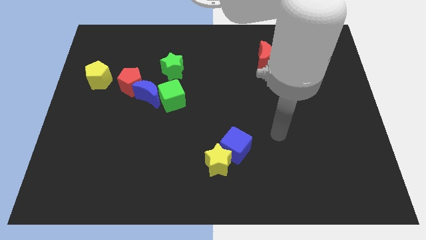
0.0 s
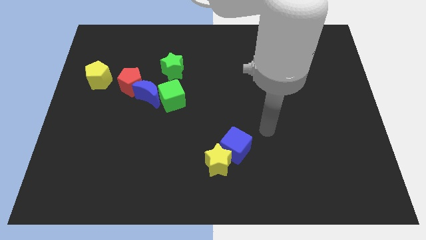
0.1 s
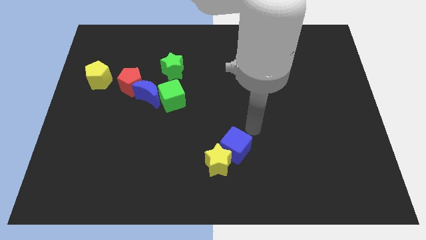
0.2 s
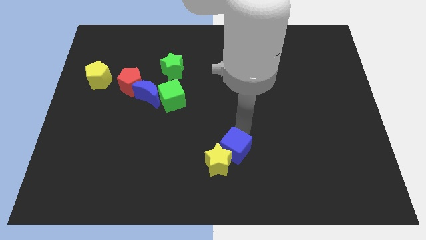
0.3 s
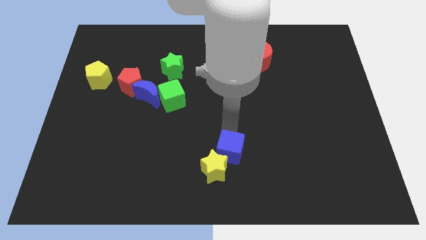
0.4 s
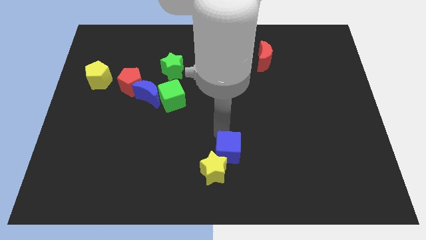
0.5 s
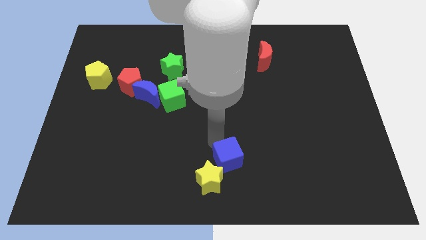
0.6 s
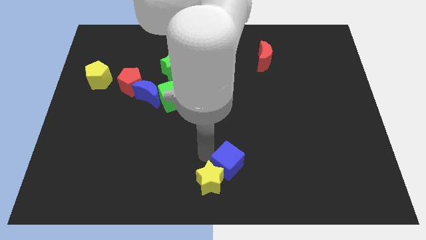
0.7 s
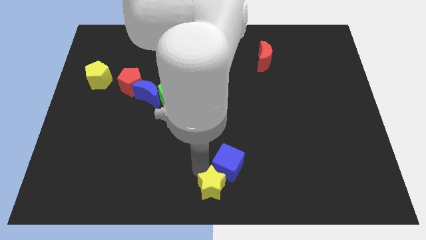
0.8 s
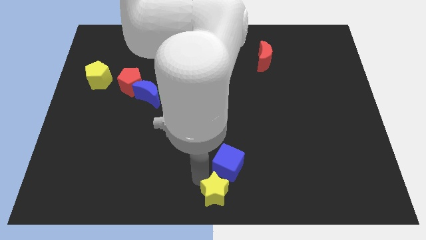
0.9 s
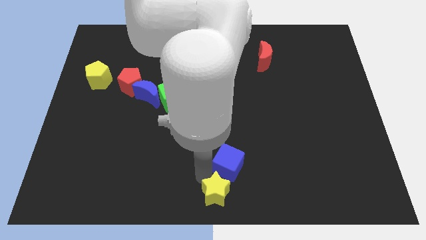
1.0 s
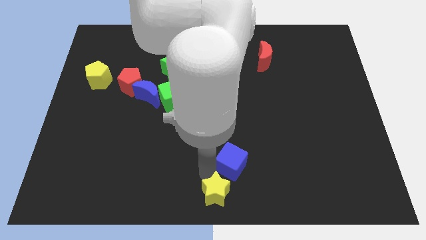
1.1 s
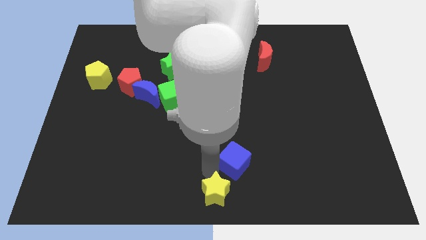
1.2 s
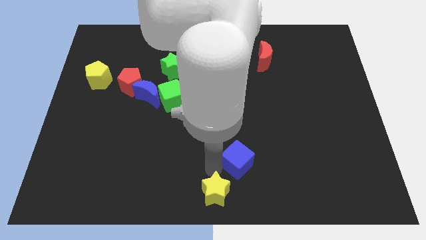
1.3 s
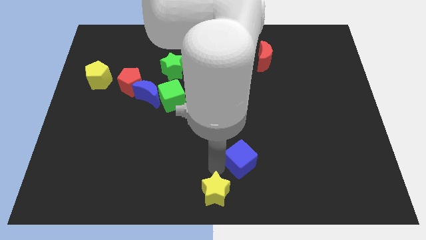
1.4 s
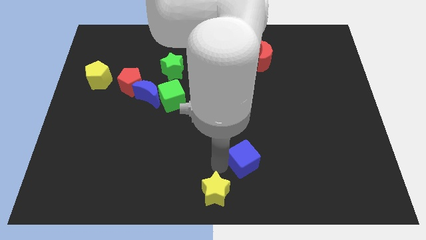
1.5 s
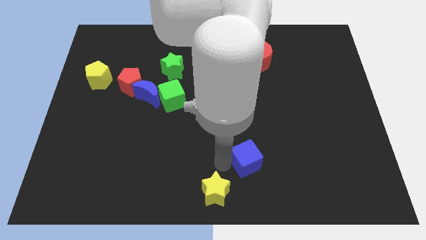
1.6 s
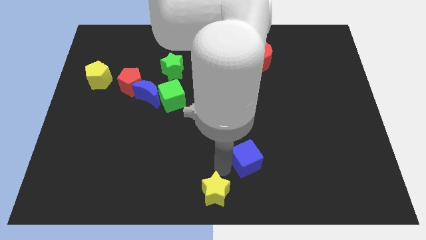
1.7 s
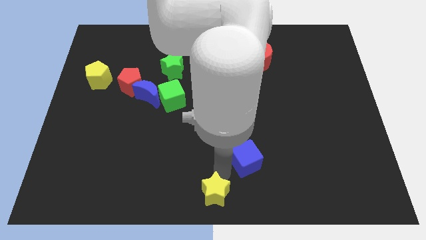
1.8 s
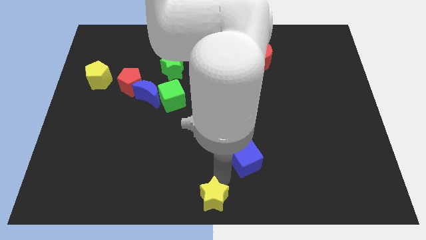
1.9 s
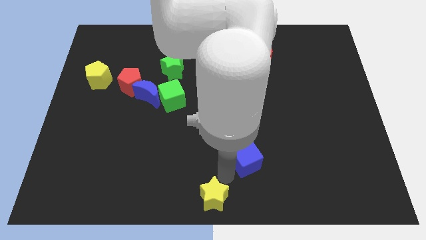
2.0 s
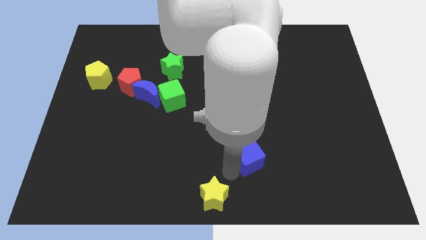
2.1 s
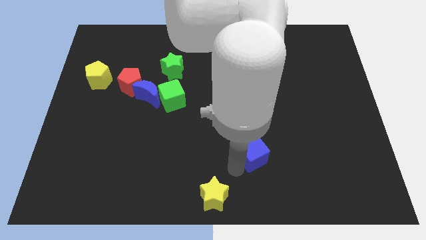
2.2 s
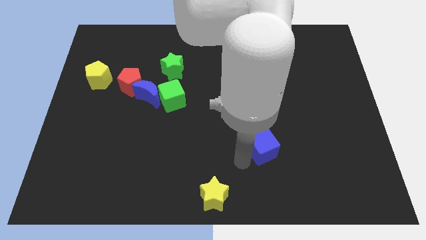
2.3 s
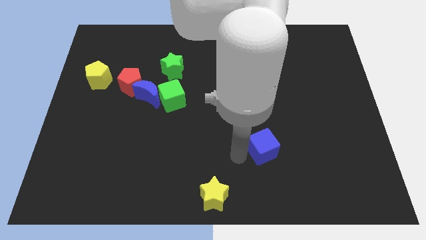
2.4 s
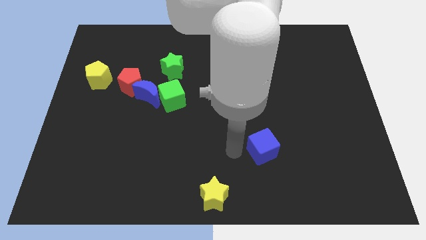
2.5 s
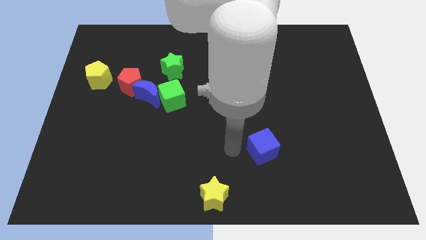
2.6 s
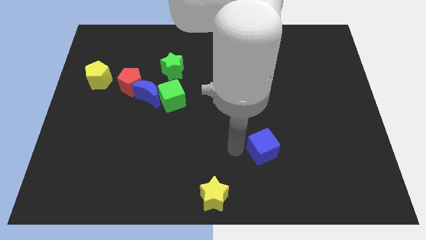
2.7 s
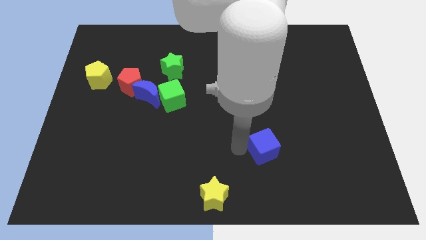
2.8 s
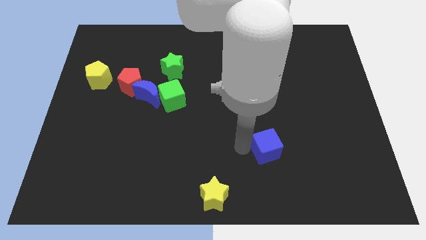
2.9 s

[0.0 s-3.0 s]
move the blue cube slightly to the right

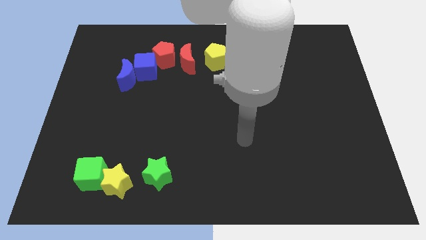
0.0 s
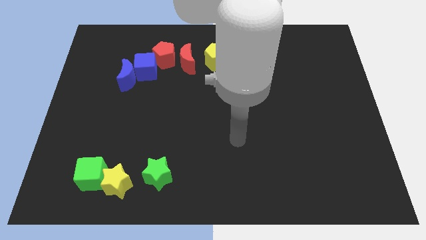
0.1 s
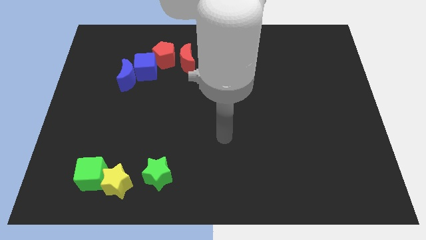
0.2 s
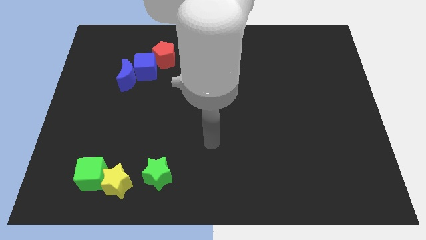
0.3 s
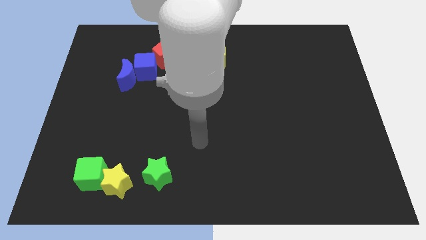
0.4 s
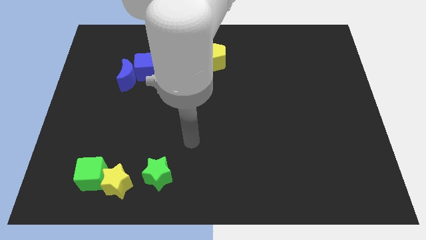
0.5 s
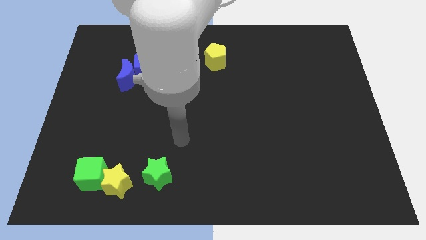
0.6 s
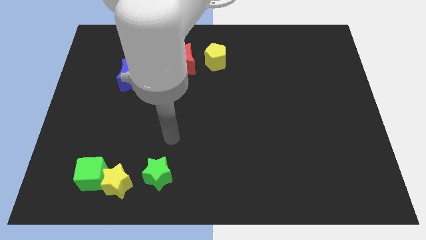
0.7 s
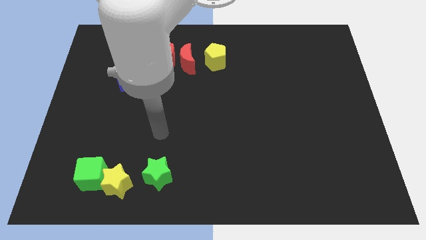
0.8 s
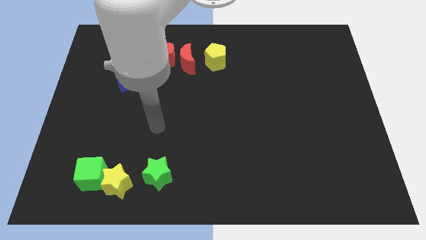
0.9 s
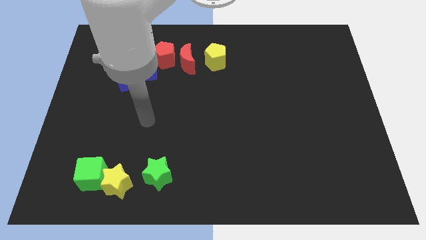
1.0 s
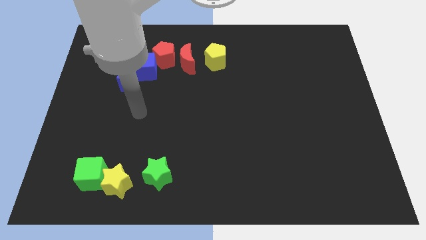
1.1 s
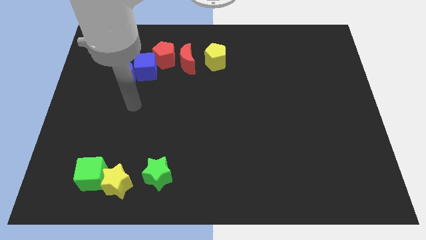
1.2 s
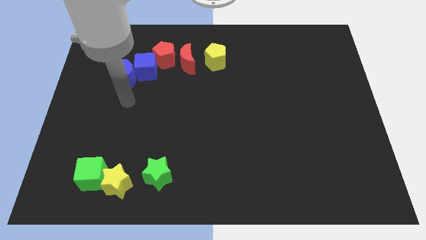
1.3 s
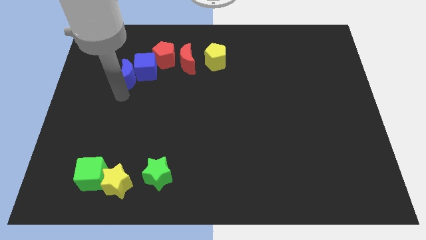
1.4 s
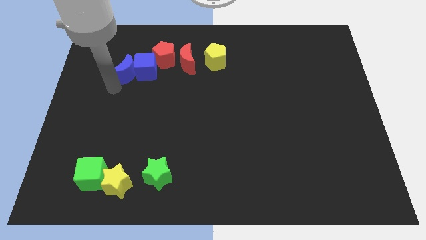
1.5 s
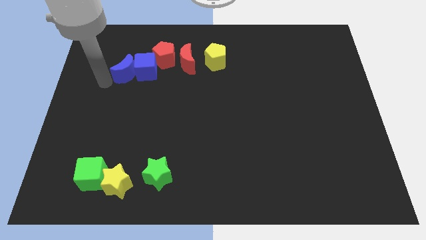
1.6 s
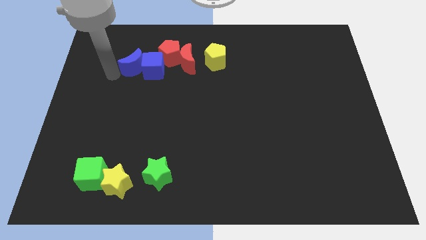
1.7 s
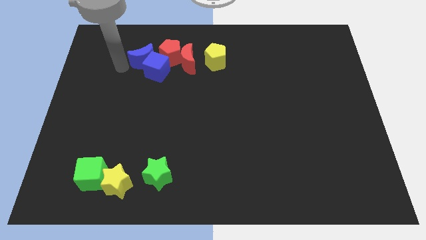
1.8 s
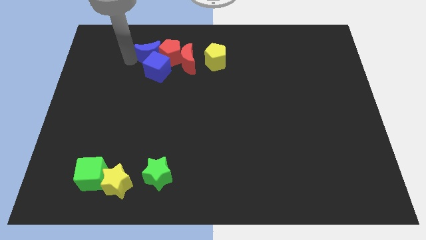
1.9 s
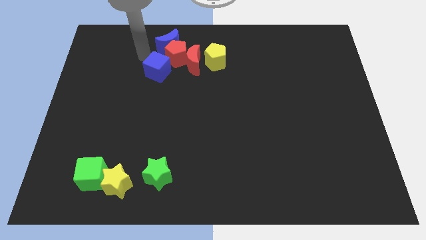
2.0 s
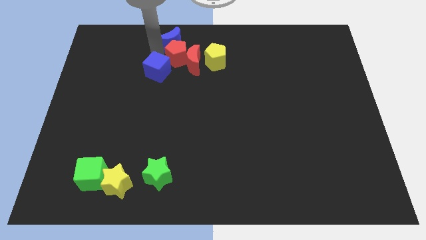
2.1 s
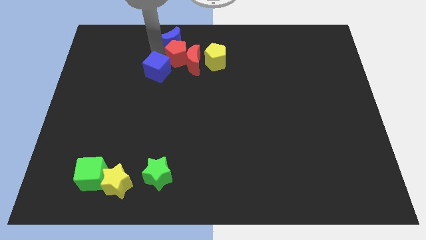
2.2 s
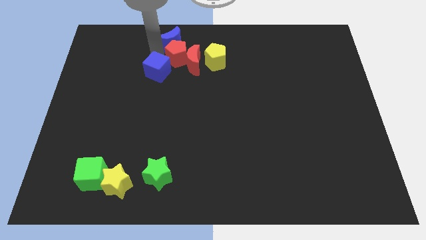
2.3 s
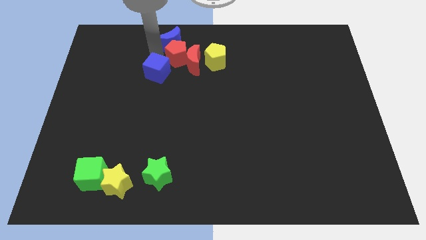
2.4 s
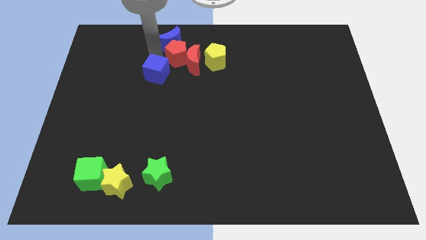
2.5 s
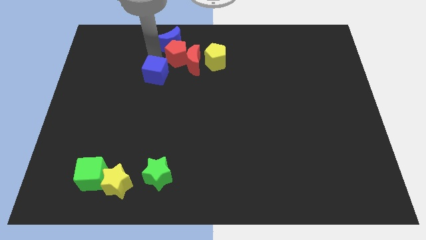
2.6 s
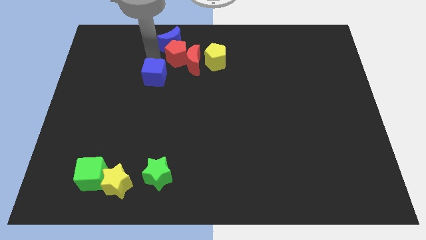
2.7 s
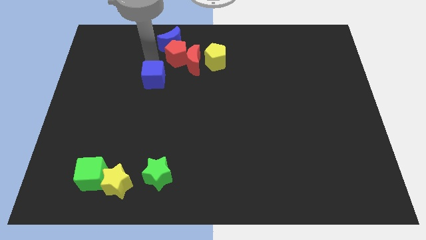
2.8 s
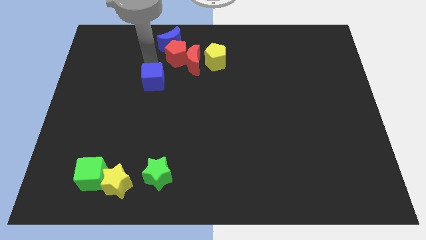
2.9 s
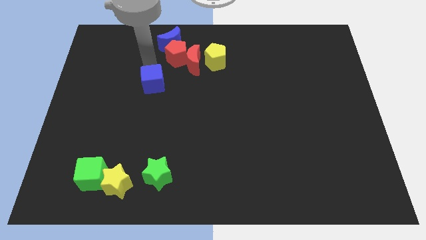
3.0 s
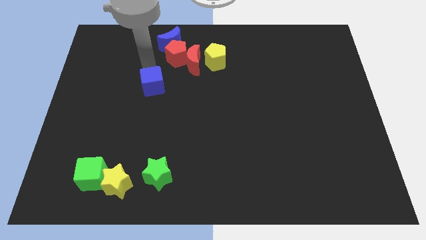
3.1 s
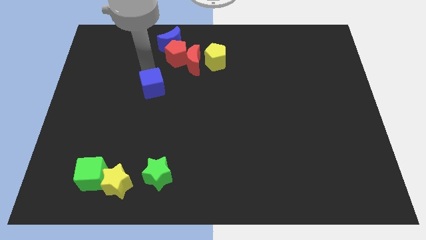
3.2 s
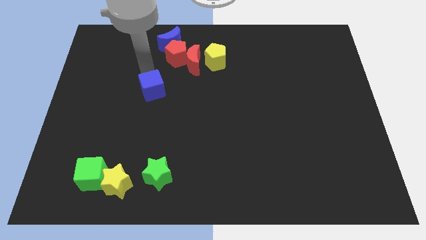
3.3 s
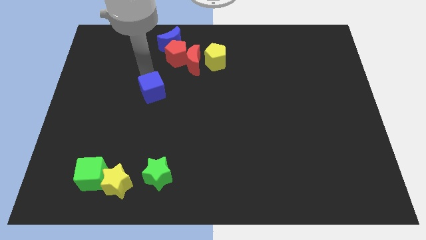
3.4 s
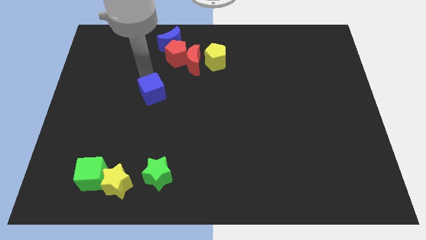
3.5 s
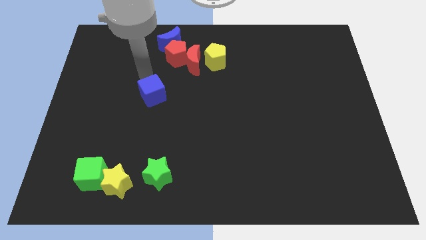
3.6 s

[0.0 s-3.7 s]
move the blue cube downwards and to the right somewhat

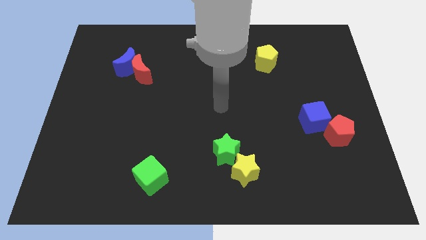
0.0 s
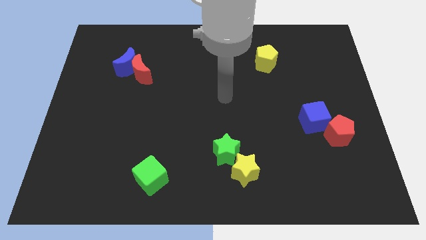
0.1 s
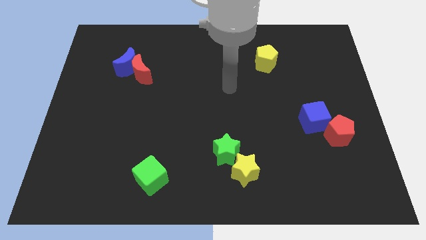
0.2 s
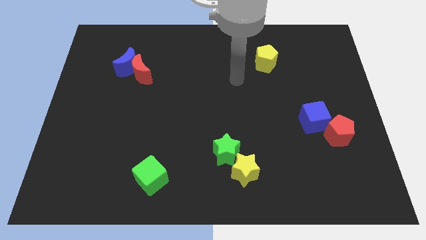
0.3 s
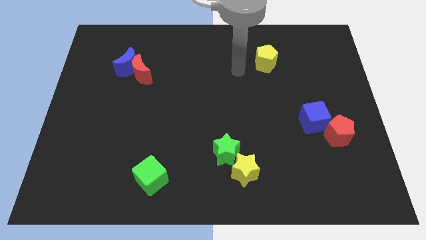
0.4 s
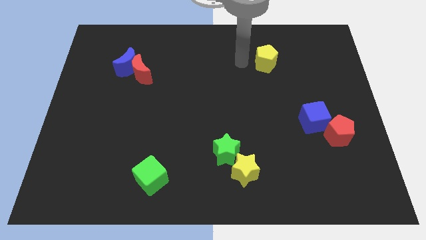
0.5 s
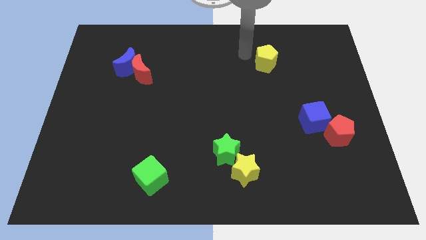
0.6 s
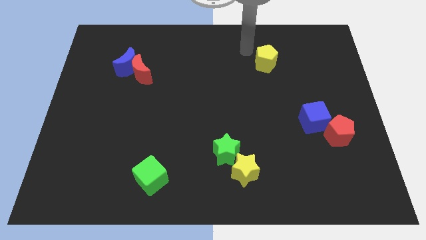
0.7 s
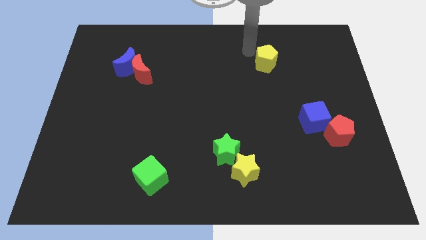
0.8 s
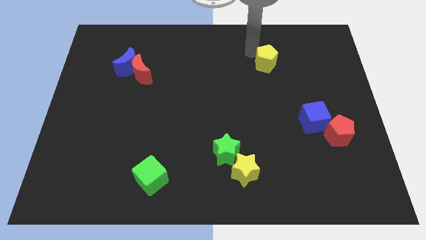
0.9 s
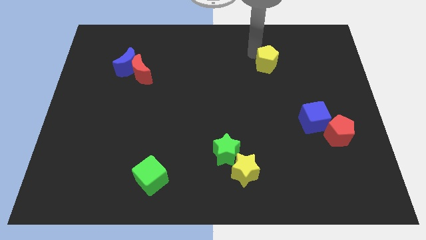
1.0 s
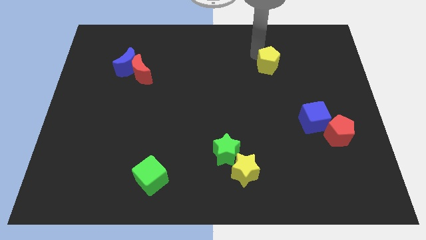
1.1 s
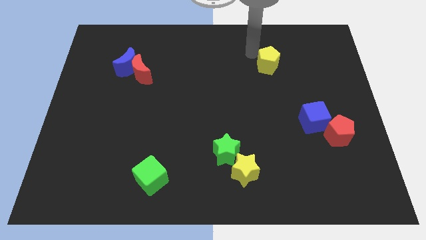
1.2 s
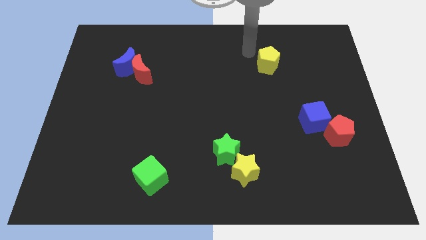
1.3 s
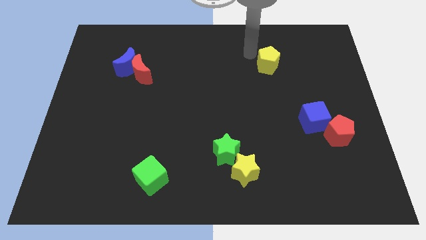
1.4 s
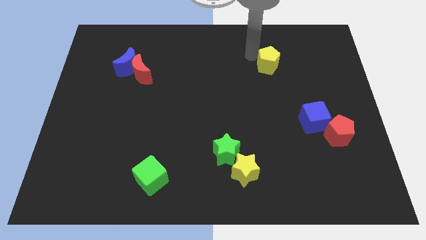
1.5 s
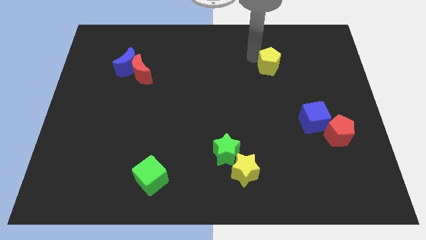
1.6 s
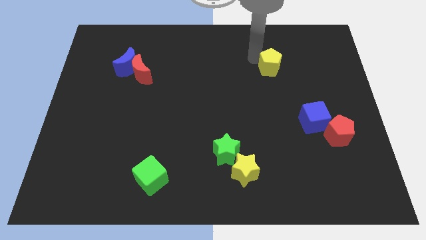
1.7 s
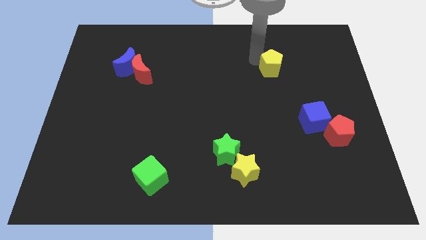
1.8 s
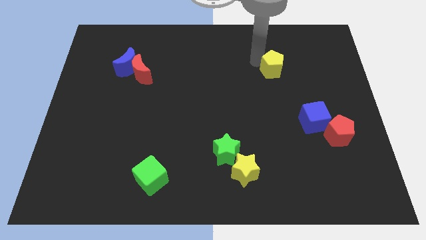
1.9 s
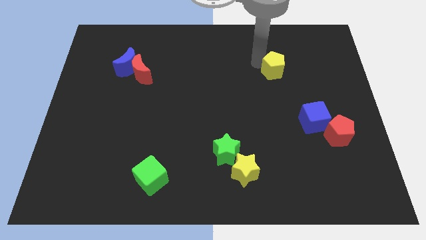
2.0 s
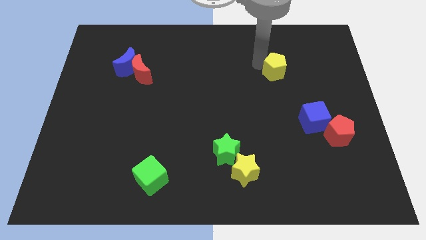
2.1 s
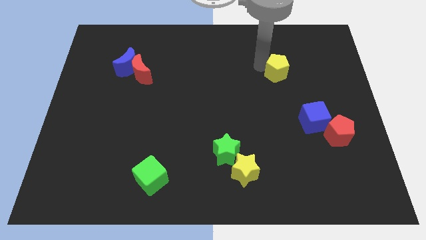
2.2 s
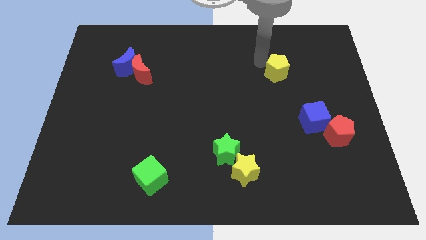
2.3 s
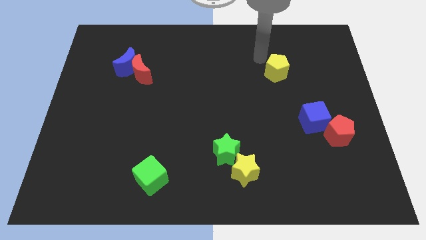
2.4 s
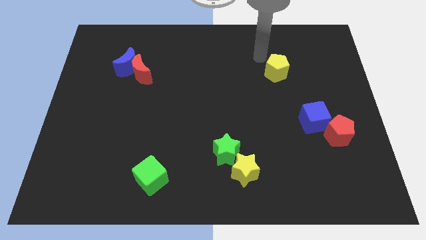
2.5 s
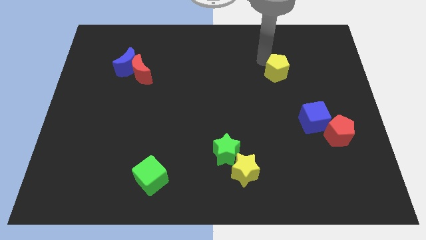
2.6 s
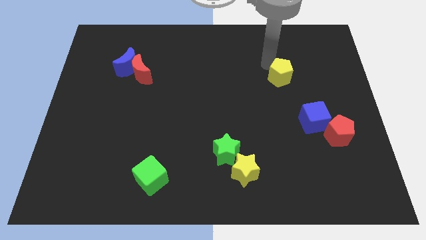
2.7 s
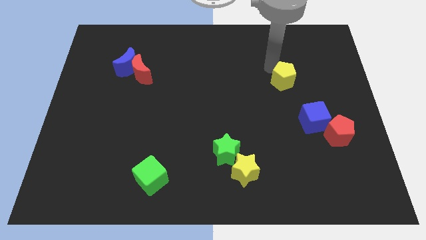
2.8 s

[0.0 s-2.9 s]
slide the yellow pentagon downwards and then to the right slightly
